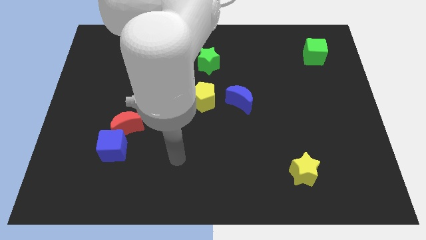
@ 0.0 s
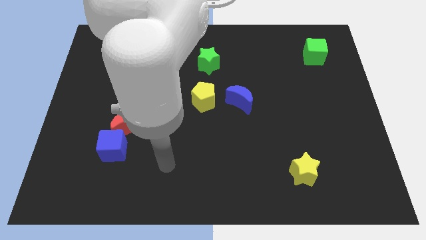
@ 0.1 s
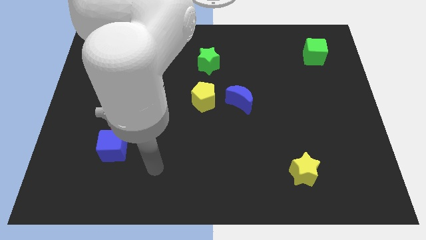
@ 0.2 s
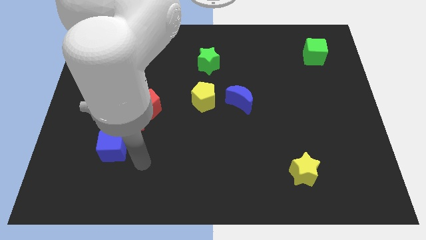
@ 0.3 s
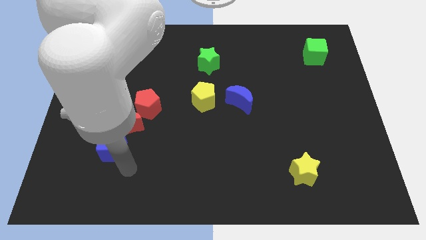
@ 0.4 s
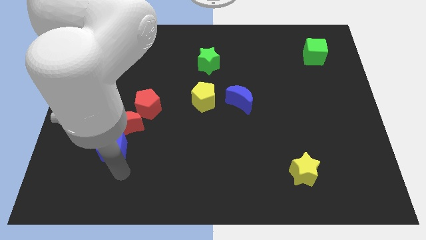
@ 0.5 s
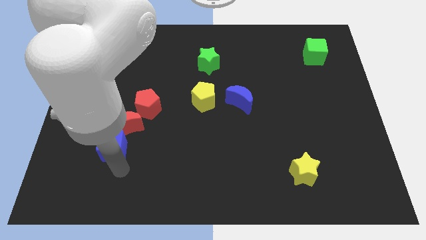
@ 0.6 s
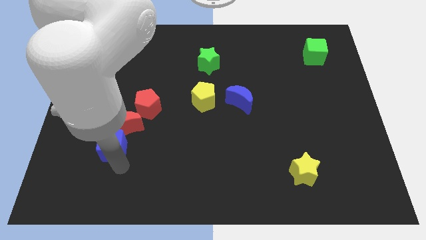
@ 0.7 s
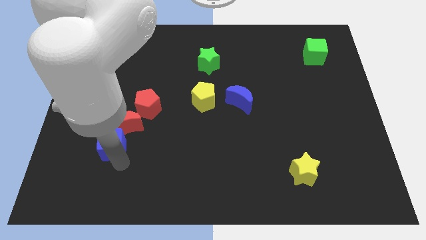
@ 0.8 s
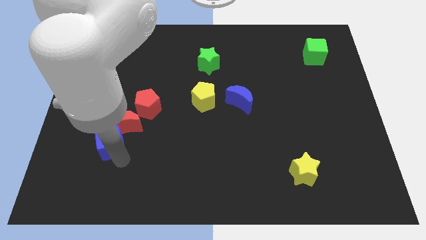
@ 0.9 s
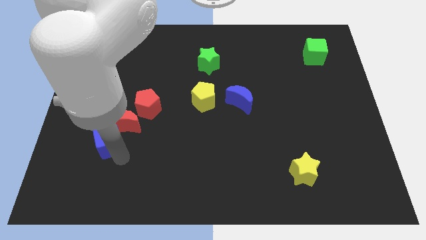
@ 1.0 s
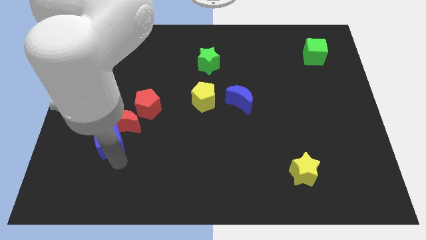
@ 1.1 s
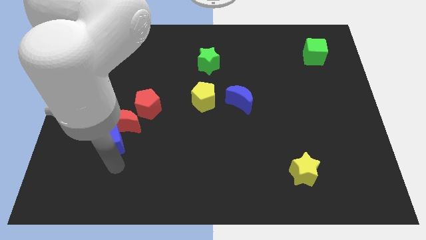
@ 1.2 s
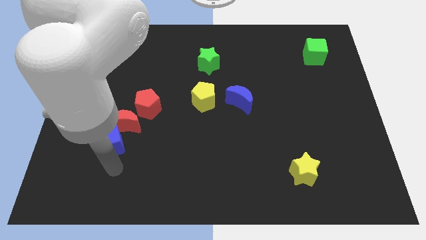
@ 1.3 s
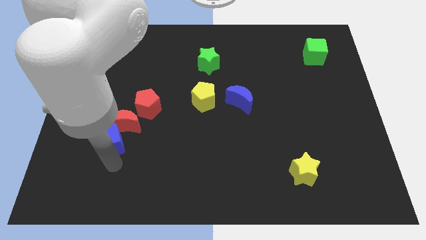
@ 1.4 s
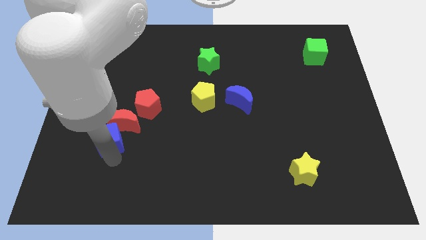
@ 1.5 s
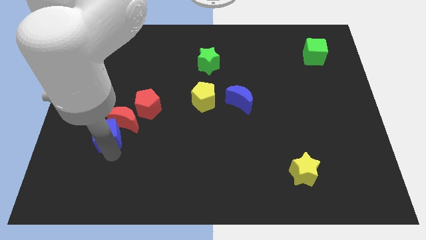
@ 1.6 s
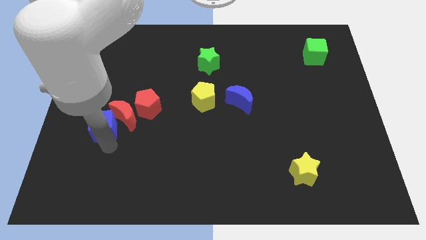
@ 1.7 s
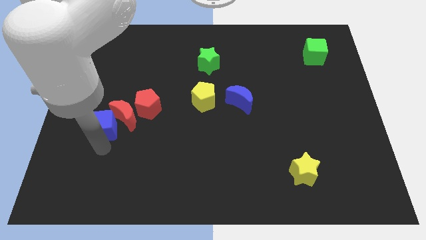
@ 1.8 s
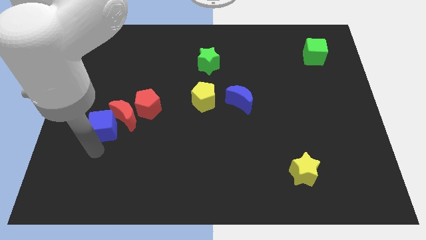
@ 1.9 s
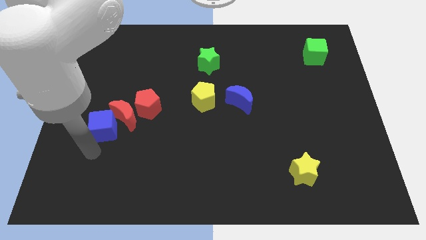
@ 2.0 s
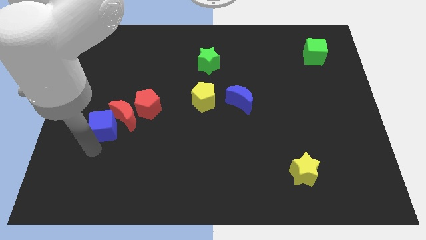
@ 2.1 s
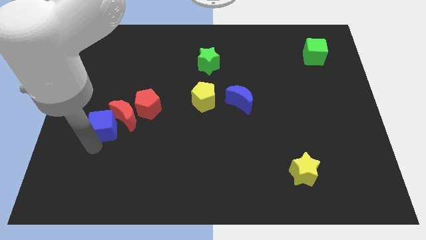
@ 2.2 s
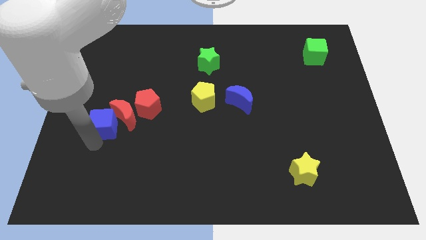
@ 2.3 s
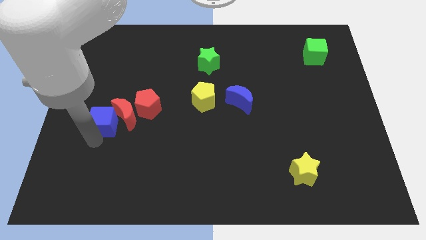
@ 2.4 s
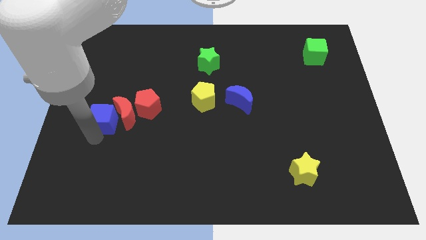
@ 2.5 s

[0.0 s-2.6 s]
slightly push the blue cube up

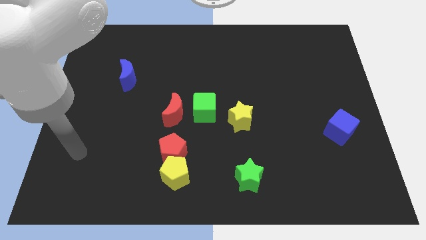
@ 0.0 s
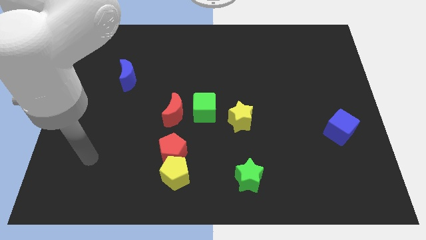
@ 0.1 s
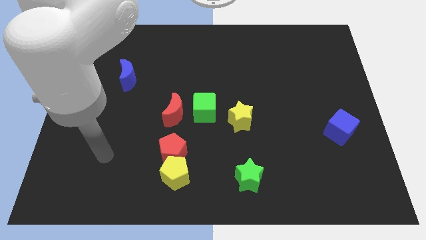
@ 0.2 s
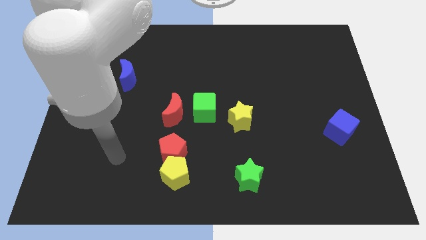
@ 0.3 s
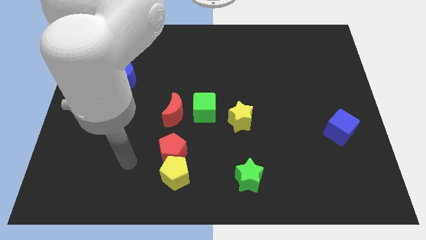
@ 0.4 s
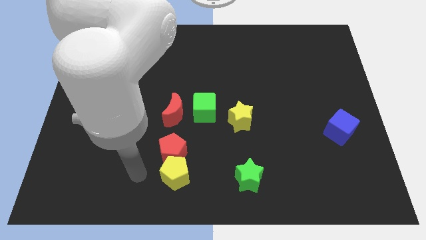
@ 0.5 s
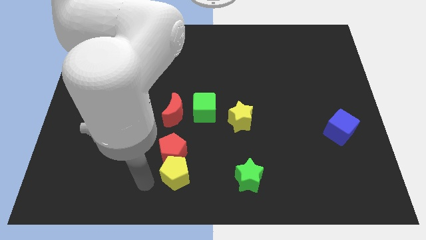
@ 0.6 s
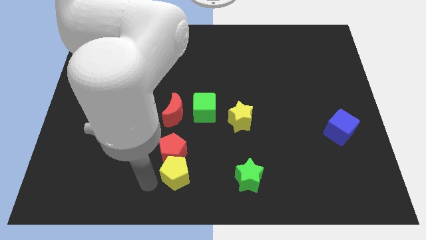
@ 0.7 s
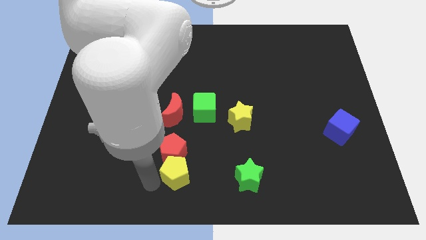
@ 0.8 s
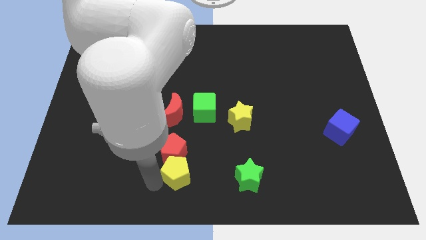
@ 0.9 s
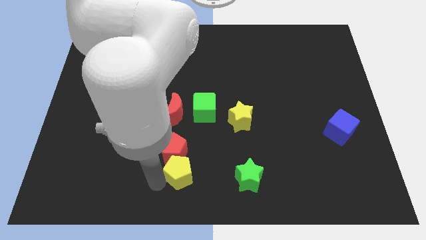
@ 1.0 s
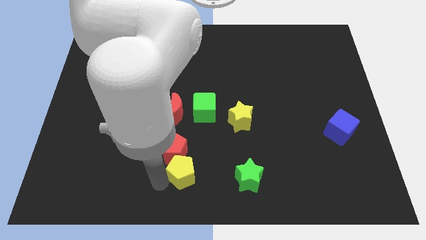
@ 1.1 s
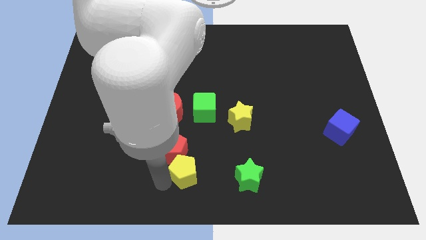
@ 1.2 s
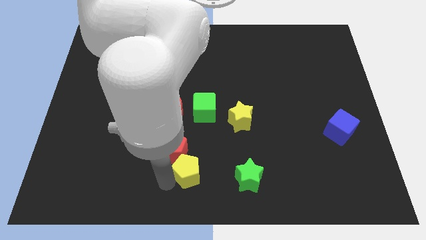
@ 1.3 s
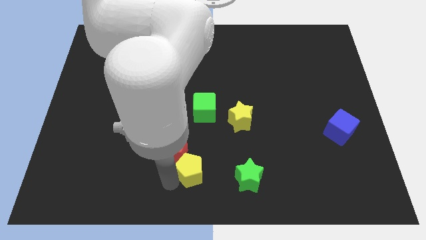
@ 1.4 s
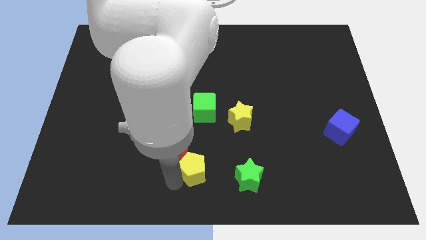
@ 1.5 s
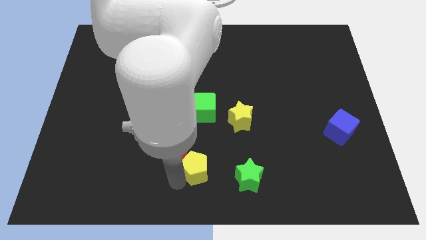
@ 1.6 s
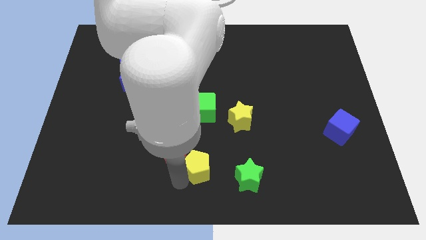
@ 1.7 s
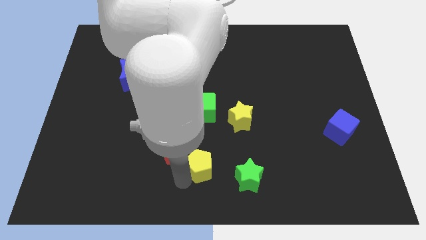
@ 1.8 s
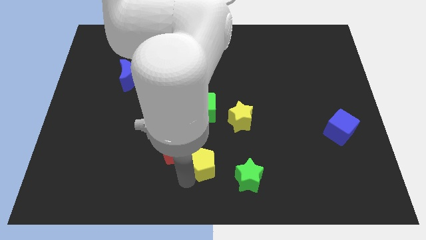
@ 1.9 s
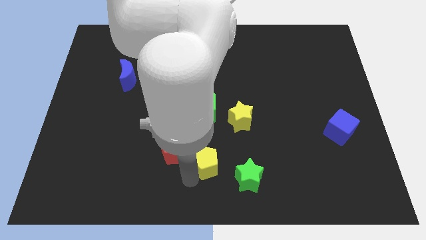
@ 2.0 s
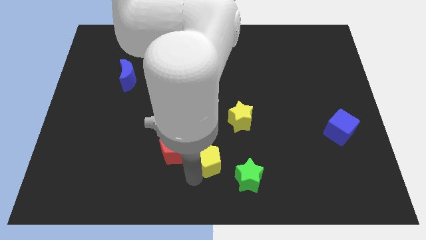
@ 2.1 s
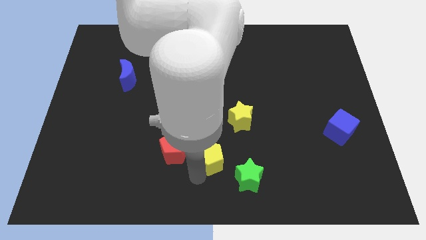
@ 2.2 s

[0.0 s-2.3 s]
move the yellow pentagon a little right

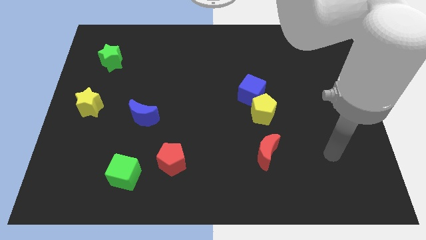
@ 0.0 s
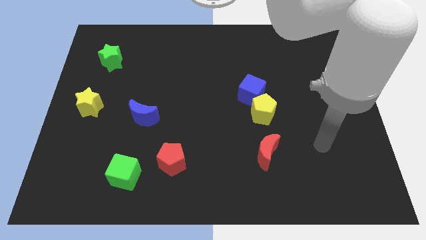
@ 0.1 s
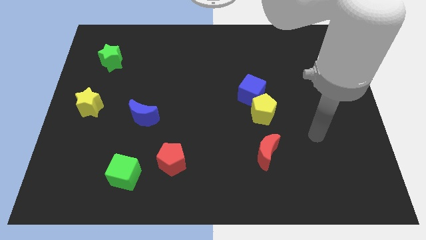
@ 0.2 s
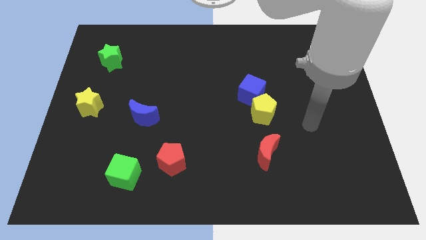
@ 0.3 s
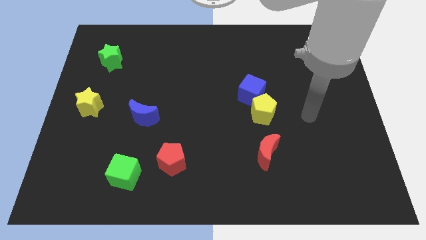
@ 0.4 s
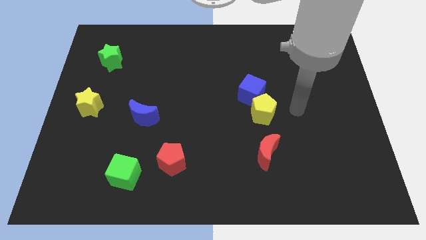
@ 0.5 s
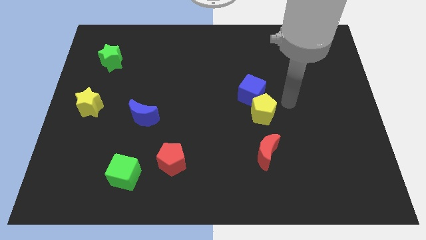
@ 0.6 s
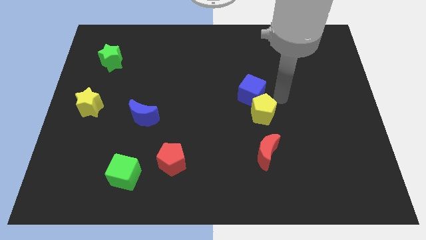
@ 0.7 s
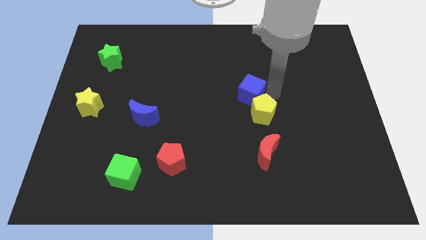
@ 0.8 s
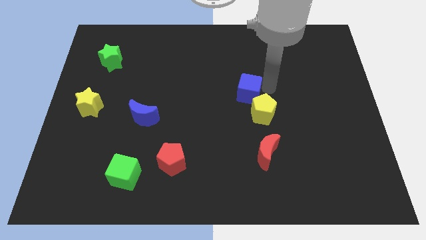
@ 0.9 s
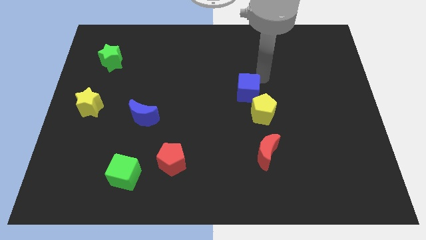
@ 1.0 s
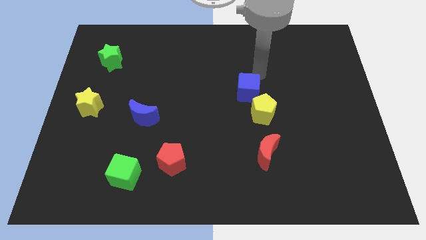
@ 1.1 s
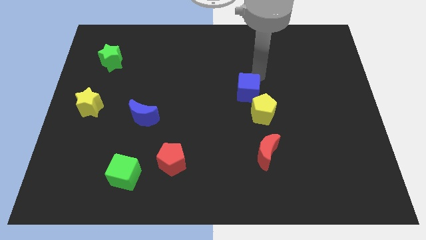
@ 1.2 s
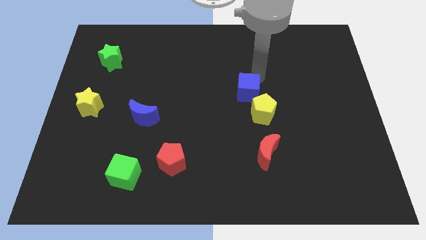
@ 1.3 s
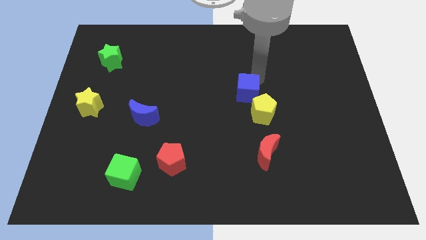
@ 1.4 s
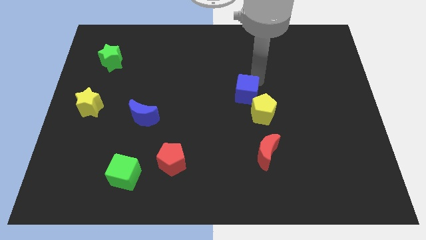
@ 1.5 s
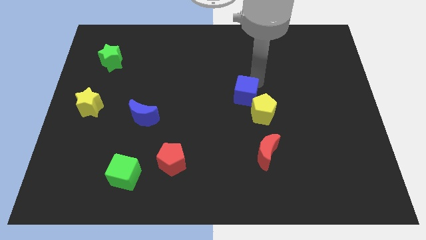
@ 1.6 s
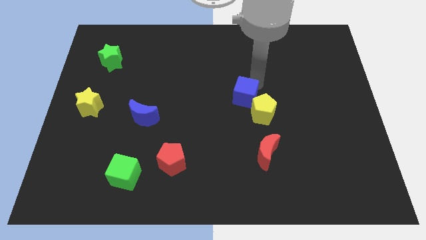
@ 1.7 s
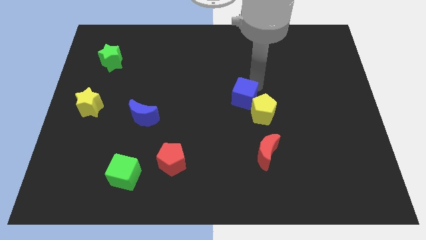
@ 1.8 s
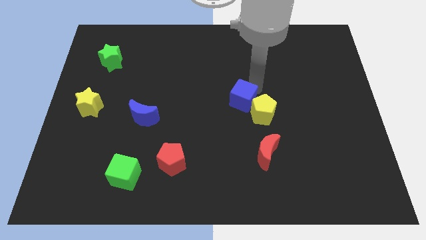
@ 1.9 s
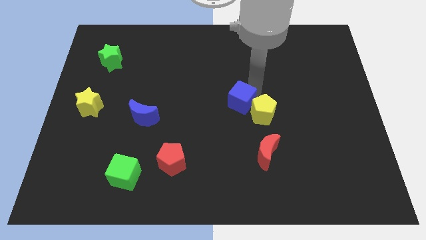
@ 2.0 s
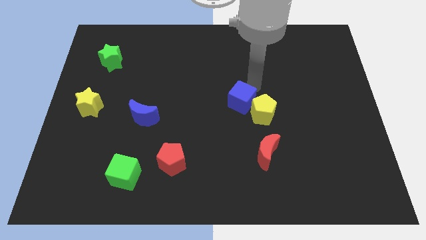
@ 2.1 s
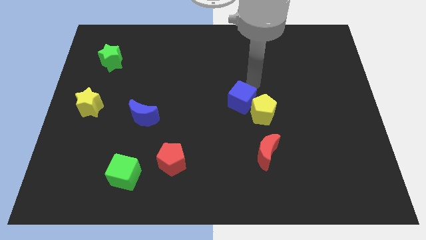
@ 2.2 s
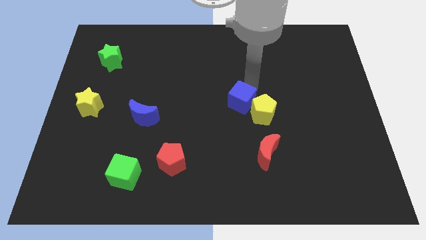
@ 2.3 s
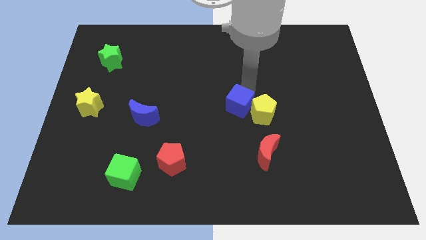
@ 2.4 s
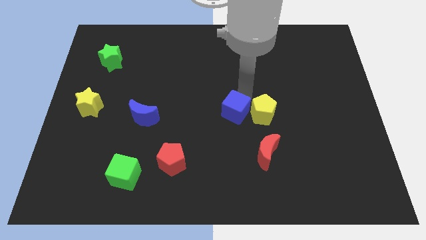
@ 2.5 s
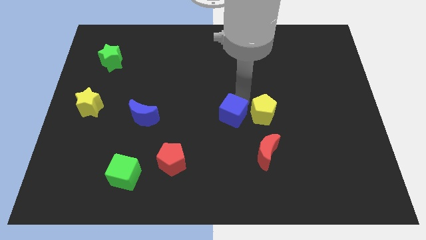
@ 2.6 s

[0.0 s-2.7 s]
push the blue cube downwards and then left slightly
